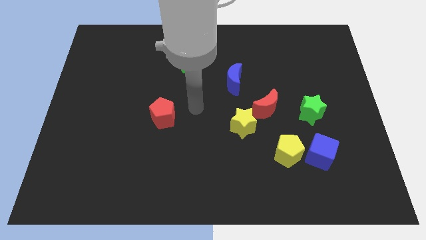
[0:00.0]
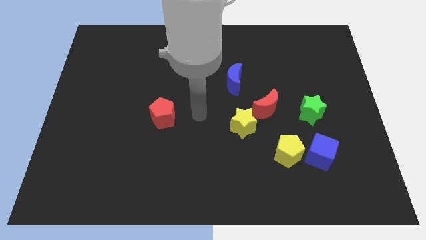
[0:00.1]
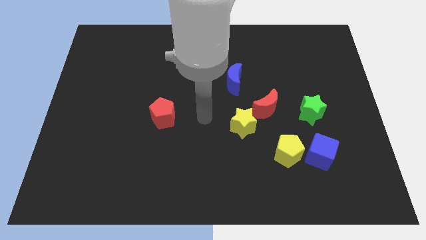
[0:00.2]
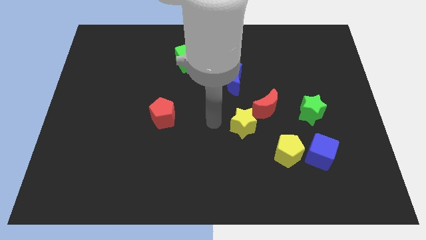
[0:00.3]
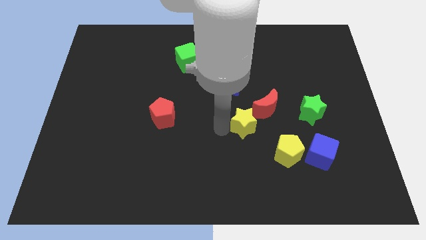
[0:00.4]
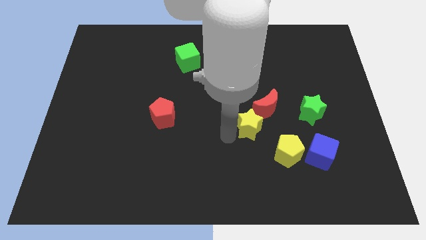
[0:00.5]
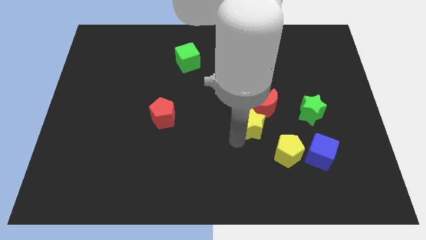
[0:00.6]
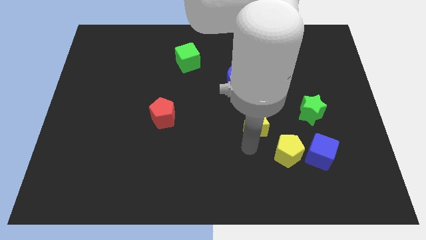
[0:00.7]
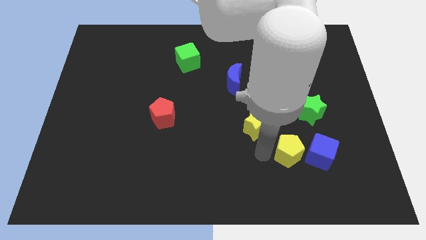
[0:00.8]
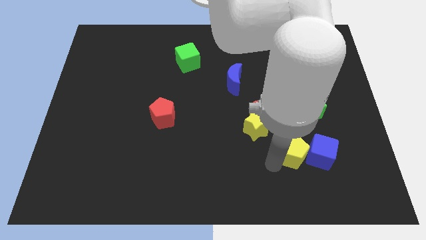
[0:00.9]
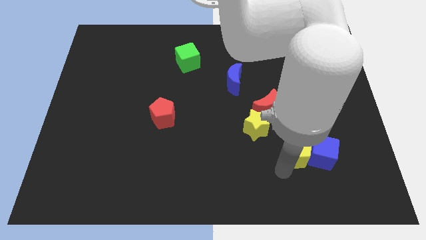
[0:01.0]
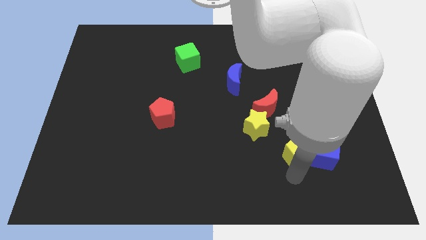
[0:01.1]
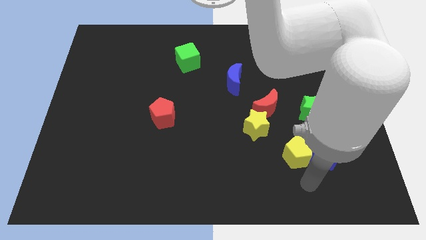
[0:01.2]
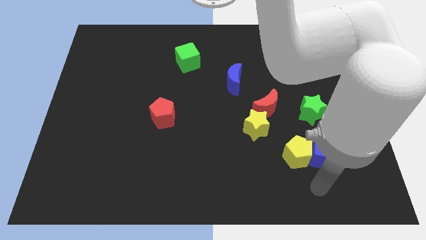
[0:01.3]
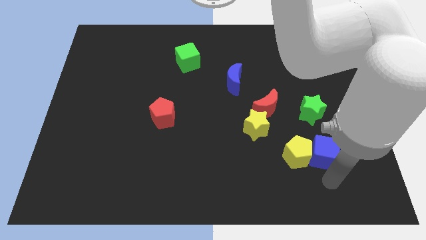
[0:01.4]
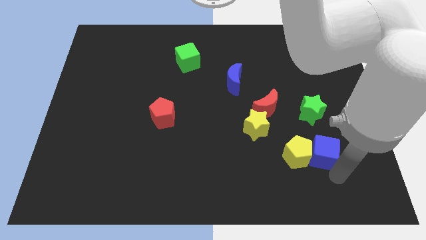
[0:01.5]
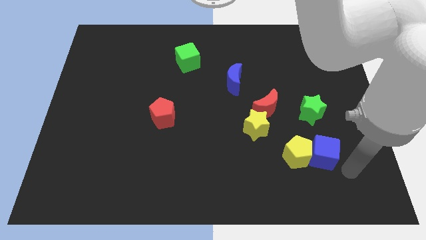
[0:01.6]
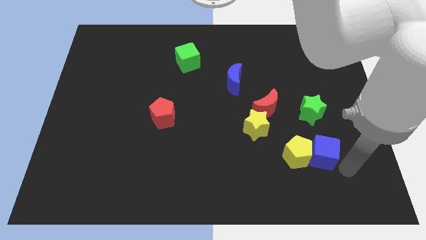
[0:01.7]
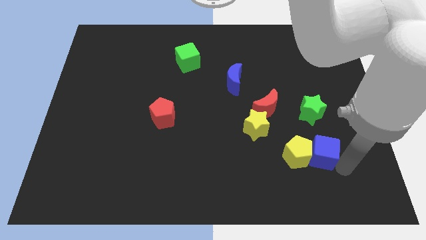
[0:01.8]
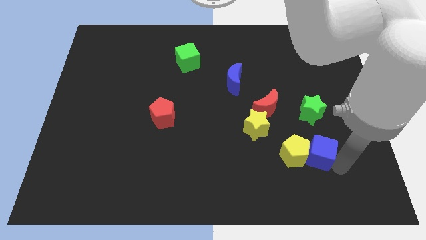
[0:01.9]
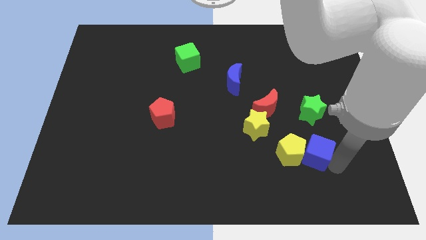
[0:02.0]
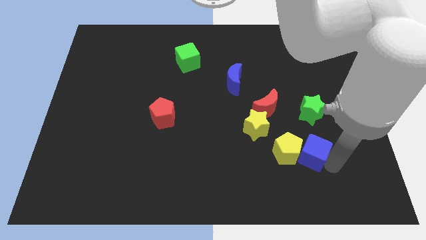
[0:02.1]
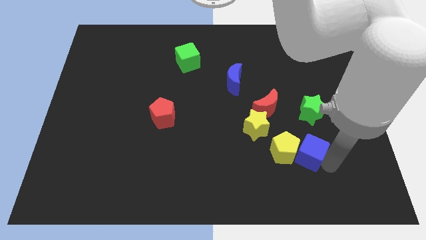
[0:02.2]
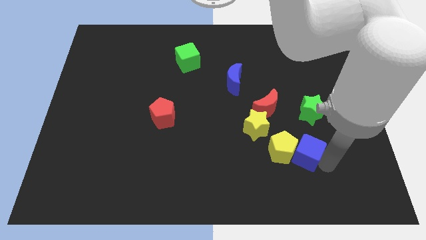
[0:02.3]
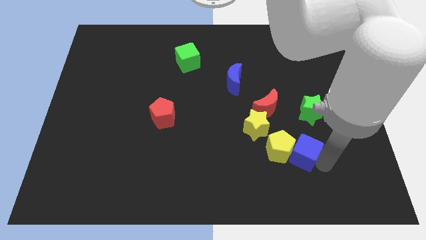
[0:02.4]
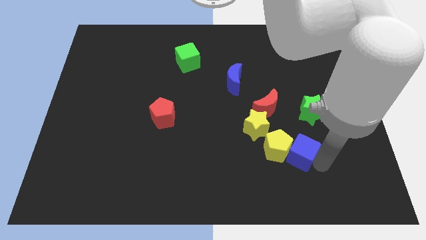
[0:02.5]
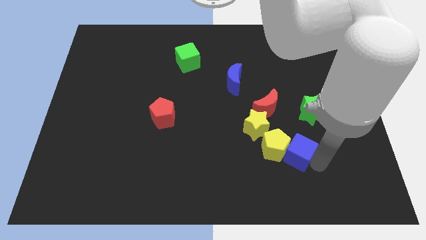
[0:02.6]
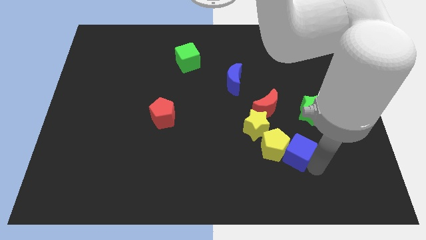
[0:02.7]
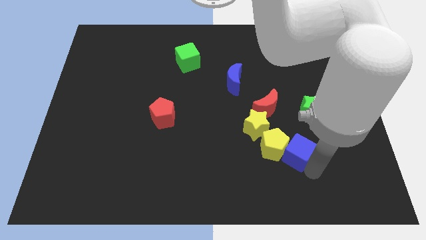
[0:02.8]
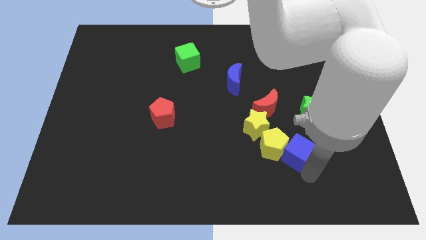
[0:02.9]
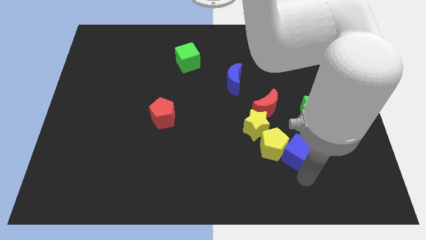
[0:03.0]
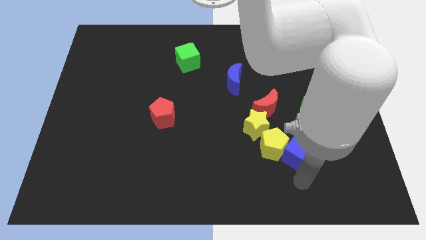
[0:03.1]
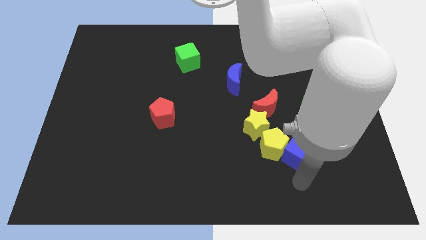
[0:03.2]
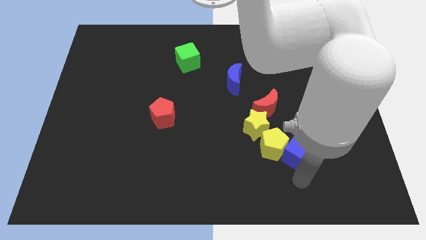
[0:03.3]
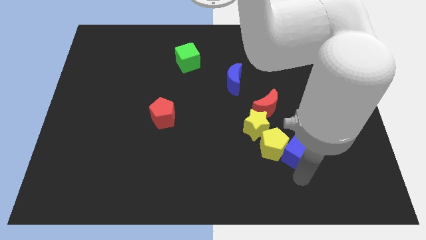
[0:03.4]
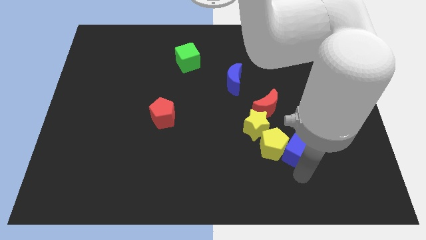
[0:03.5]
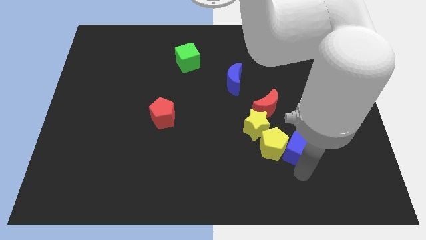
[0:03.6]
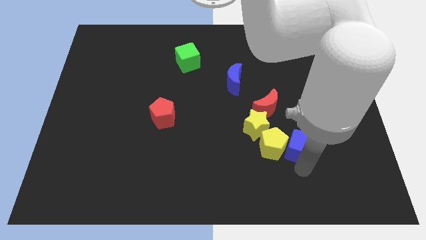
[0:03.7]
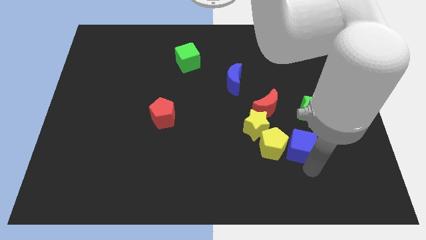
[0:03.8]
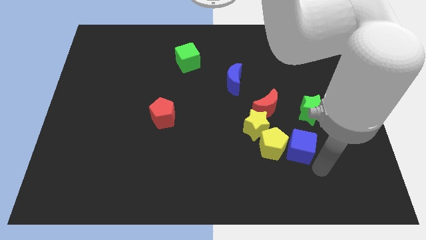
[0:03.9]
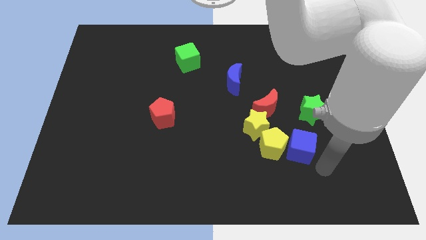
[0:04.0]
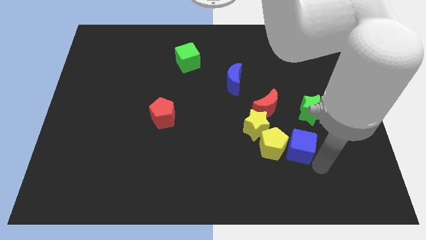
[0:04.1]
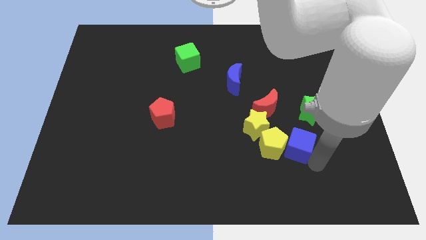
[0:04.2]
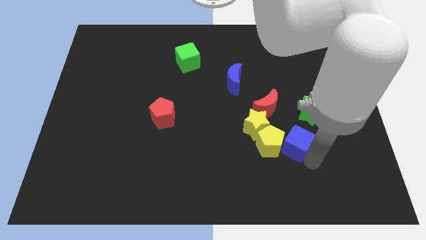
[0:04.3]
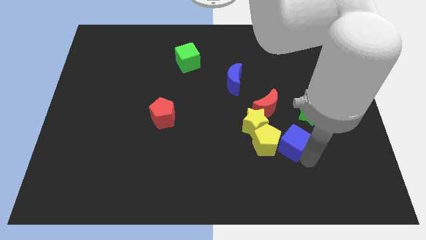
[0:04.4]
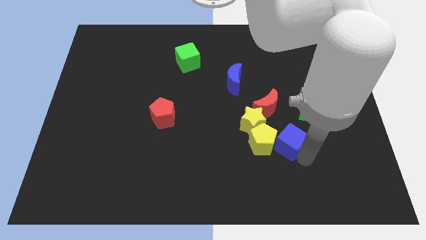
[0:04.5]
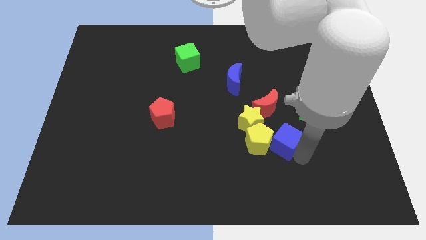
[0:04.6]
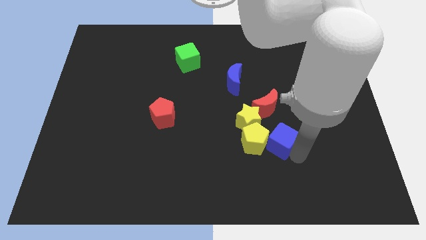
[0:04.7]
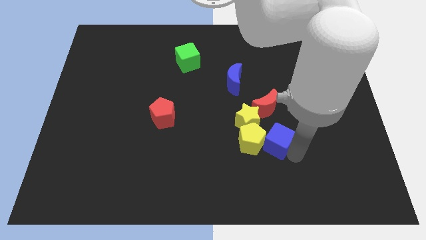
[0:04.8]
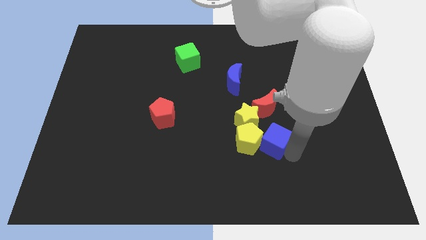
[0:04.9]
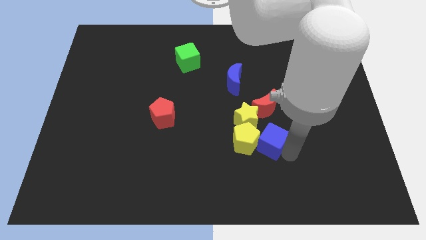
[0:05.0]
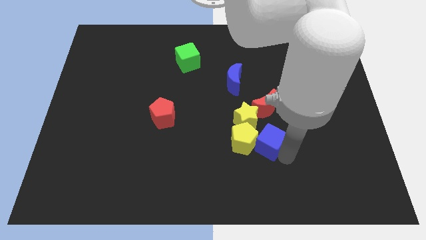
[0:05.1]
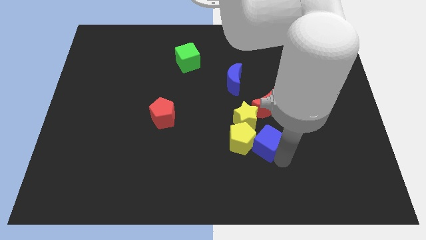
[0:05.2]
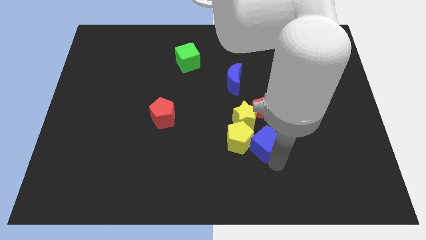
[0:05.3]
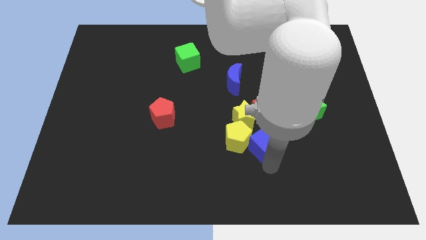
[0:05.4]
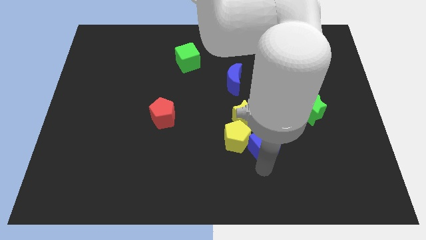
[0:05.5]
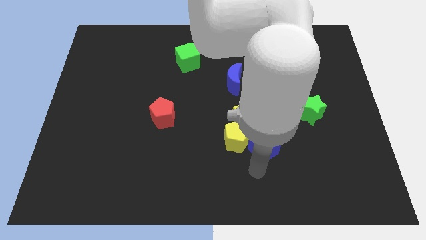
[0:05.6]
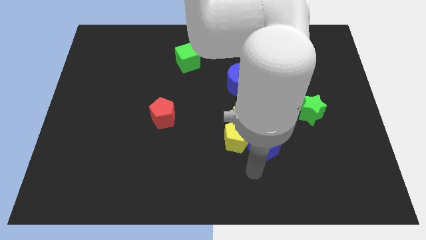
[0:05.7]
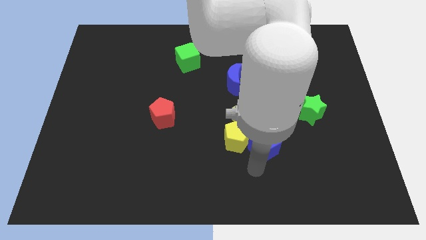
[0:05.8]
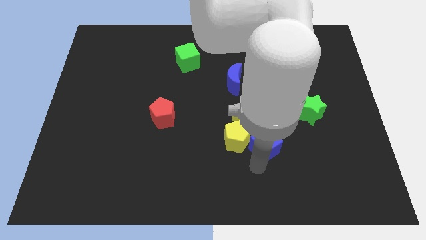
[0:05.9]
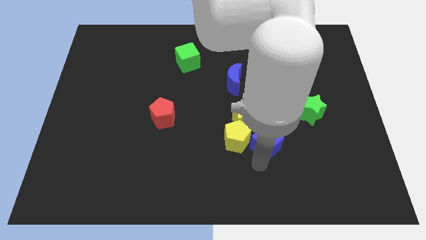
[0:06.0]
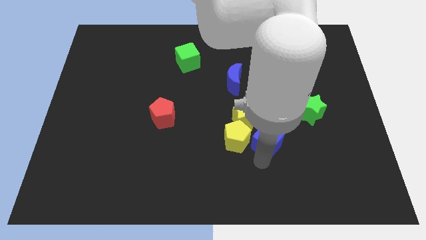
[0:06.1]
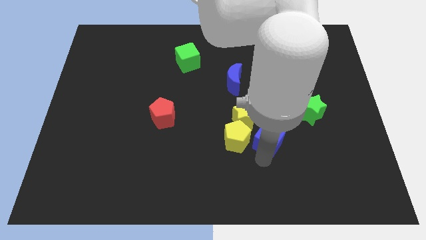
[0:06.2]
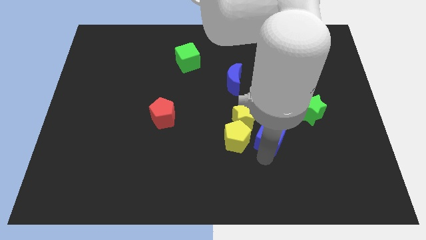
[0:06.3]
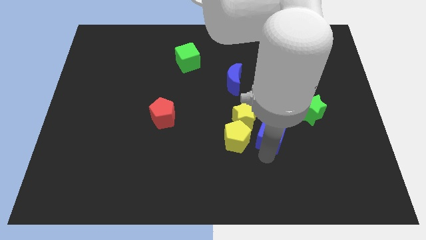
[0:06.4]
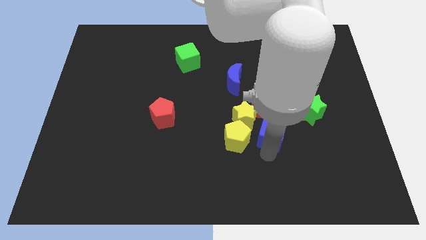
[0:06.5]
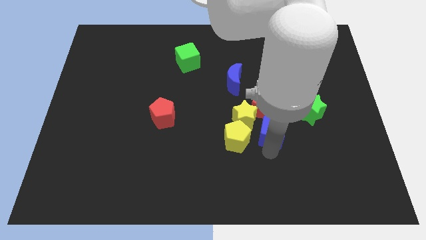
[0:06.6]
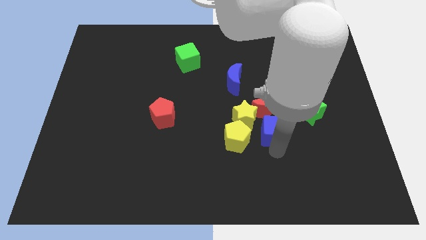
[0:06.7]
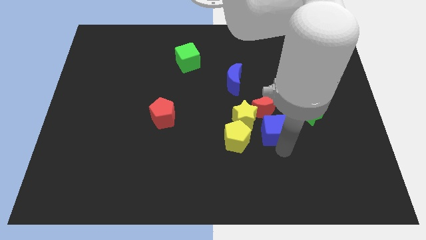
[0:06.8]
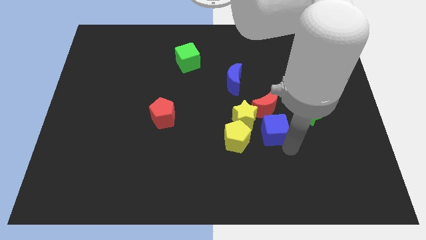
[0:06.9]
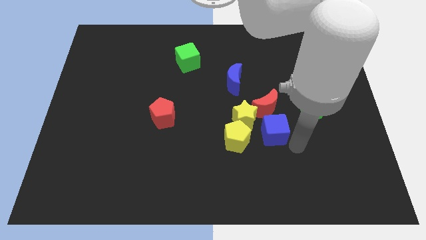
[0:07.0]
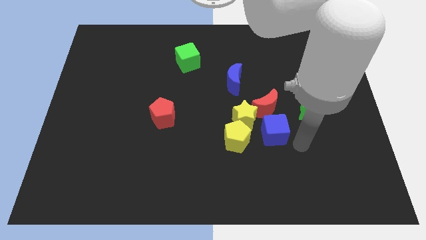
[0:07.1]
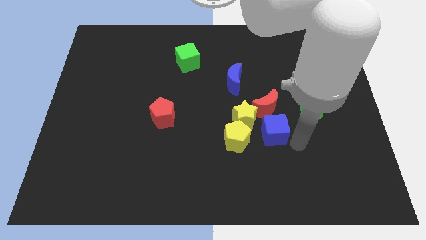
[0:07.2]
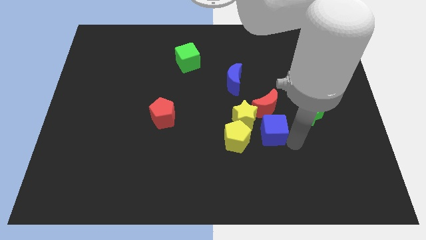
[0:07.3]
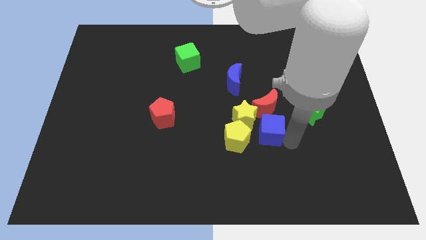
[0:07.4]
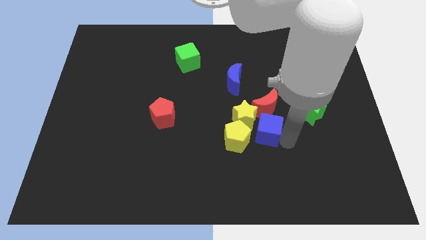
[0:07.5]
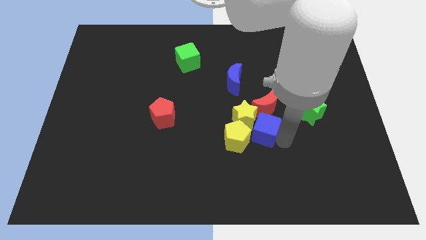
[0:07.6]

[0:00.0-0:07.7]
put the blue cube to the yellow star
